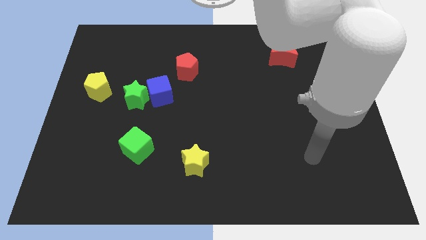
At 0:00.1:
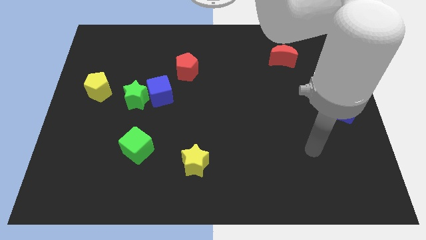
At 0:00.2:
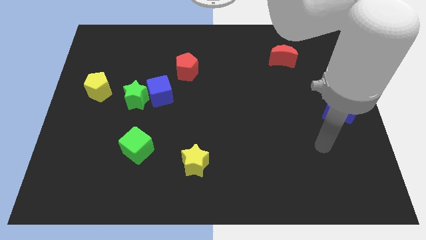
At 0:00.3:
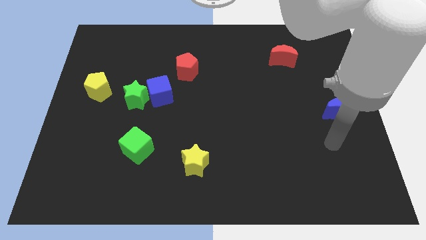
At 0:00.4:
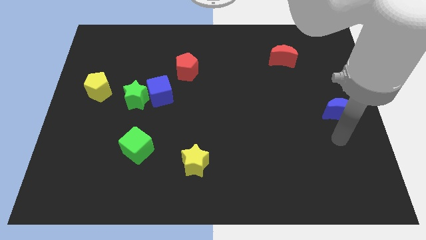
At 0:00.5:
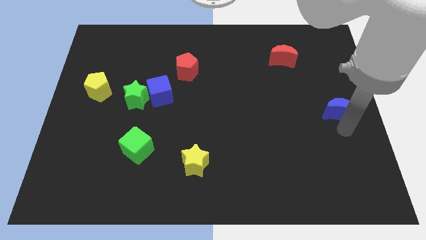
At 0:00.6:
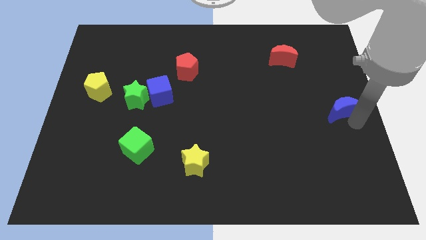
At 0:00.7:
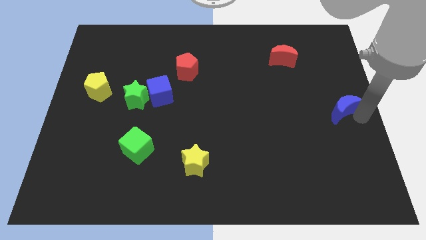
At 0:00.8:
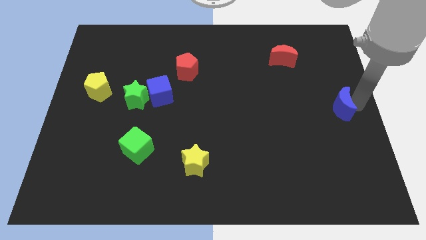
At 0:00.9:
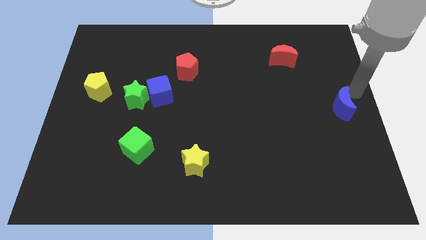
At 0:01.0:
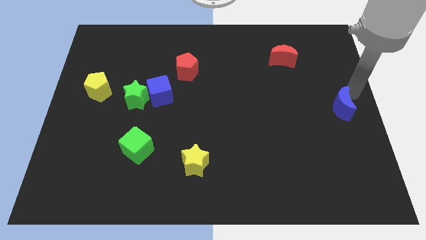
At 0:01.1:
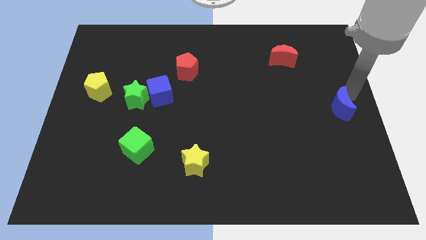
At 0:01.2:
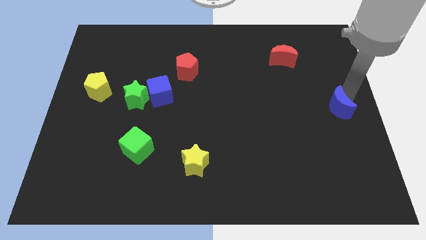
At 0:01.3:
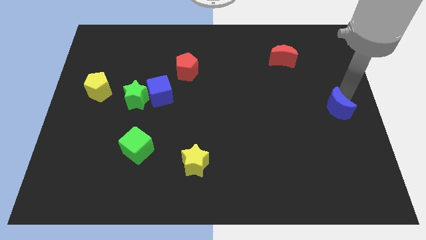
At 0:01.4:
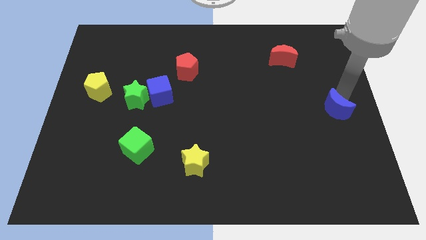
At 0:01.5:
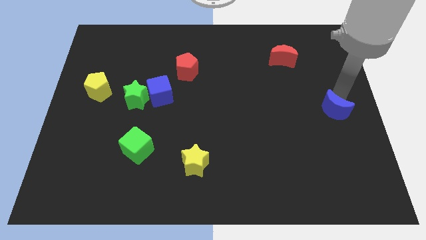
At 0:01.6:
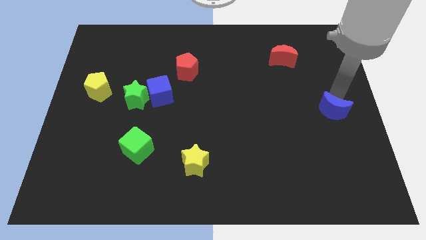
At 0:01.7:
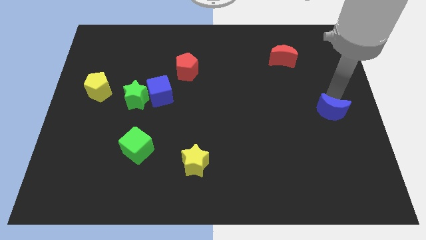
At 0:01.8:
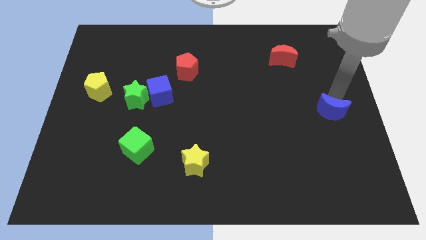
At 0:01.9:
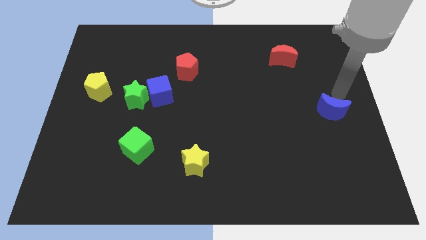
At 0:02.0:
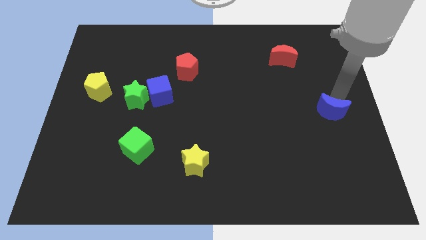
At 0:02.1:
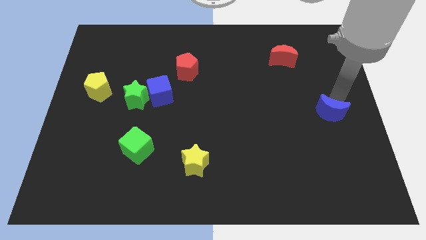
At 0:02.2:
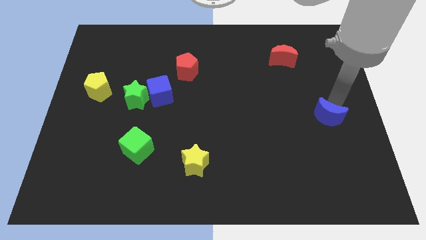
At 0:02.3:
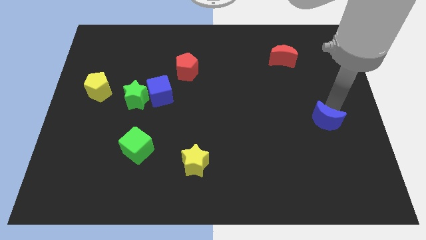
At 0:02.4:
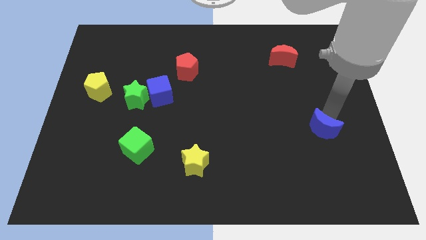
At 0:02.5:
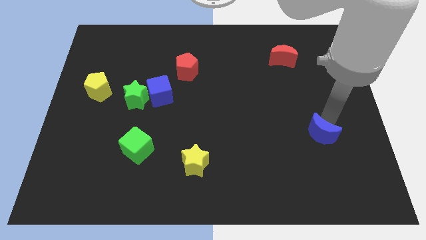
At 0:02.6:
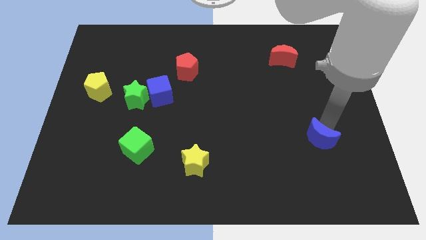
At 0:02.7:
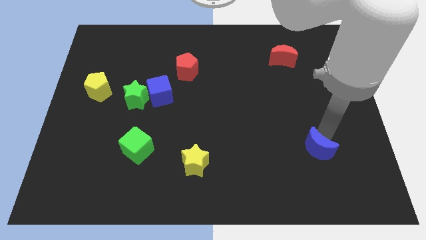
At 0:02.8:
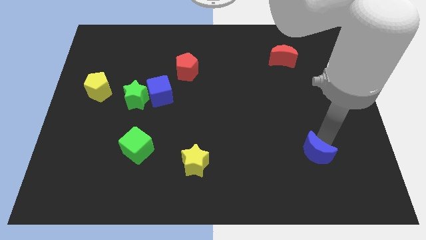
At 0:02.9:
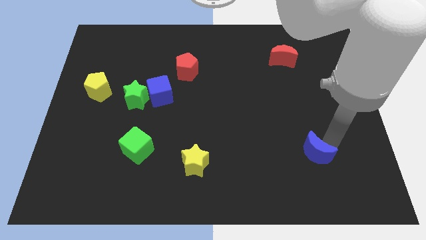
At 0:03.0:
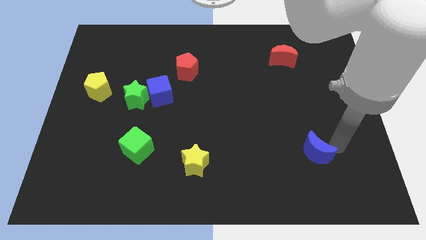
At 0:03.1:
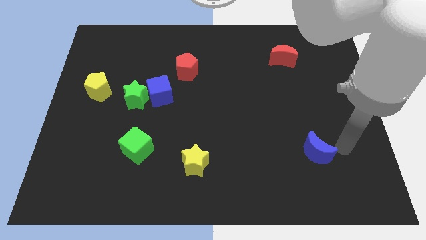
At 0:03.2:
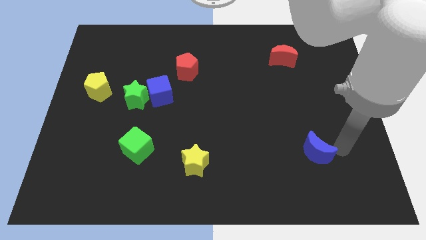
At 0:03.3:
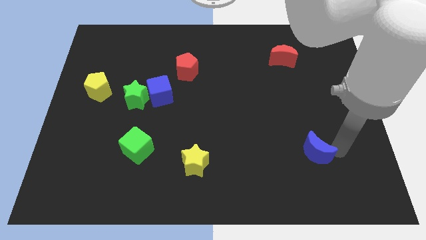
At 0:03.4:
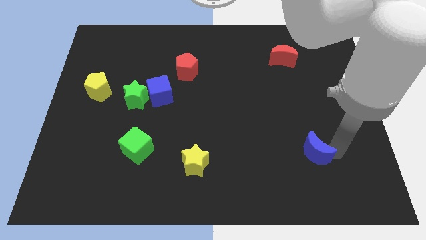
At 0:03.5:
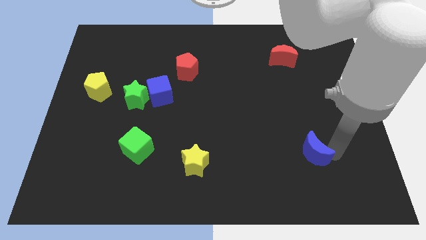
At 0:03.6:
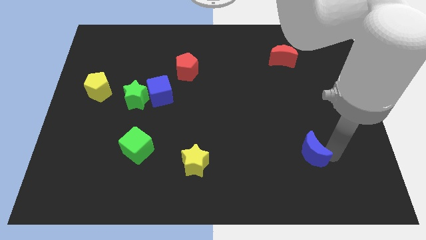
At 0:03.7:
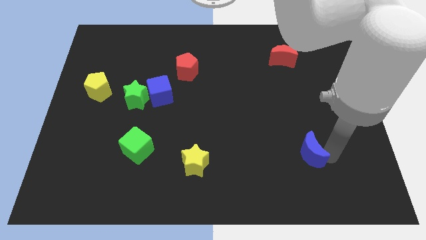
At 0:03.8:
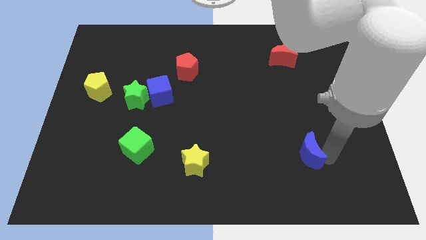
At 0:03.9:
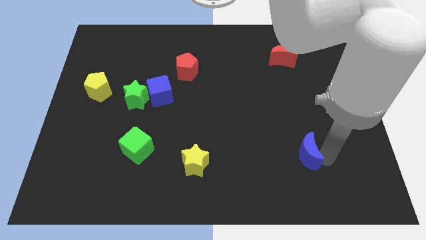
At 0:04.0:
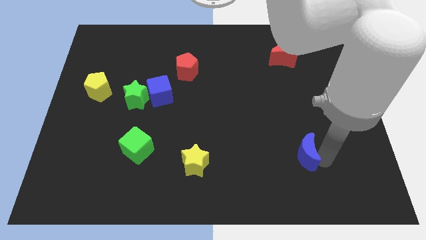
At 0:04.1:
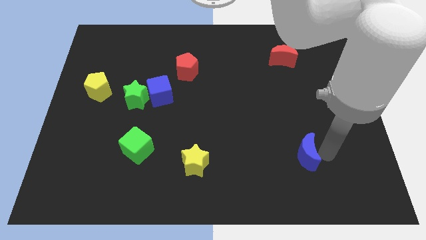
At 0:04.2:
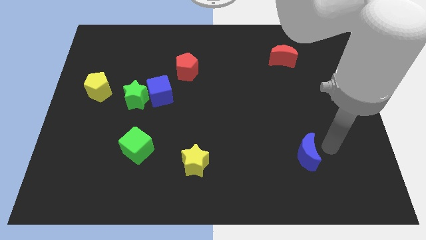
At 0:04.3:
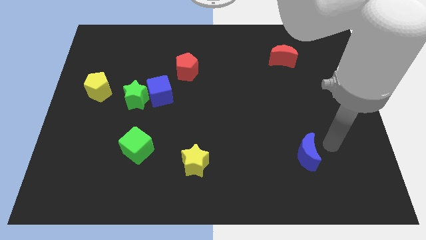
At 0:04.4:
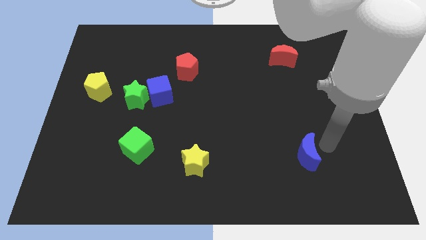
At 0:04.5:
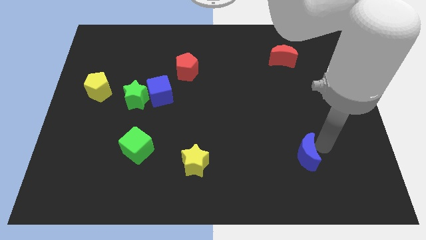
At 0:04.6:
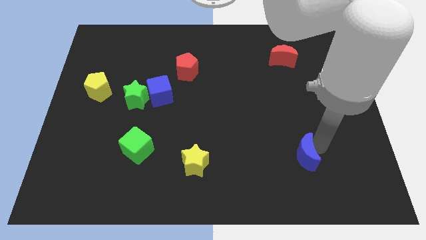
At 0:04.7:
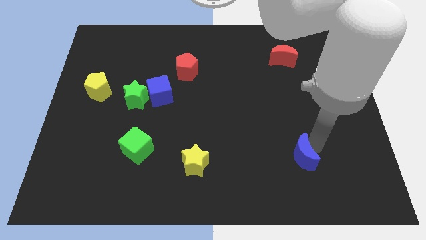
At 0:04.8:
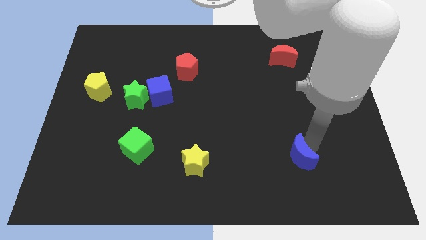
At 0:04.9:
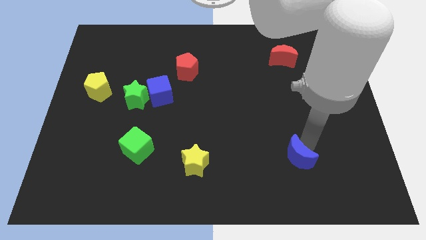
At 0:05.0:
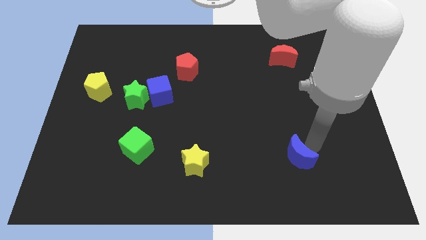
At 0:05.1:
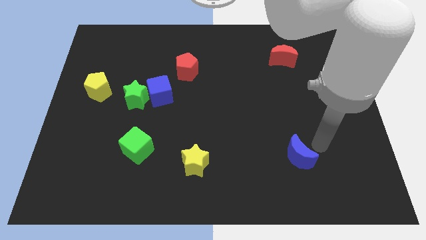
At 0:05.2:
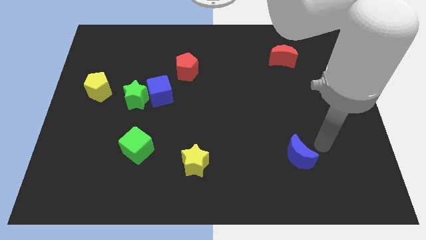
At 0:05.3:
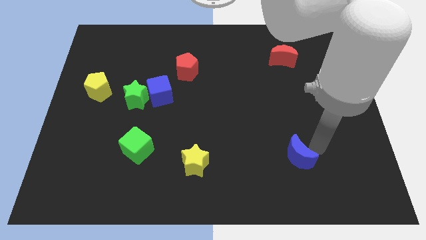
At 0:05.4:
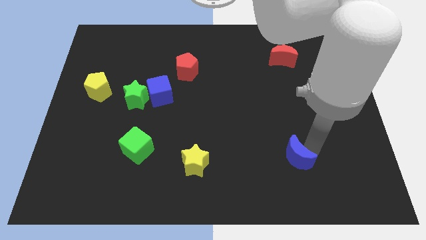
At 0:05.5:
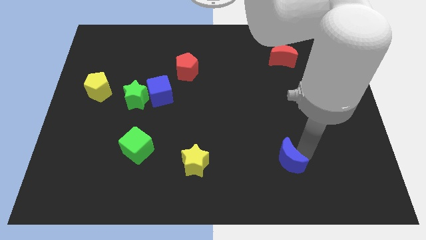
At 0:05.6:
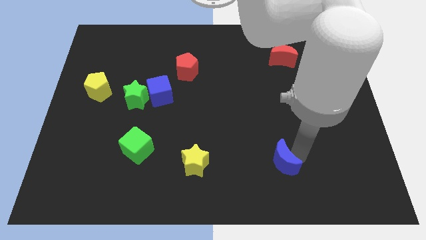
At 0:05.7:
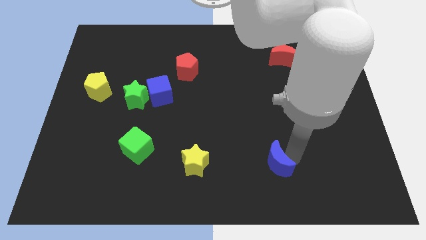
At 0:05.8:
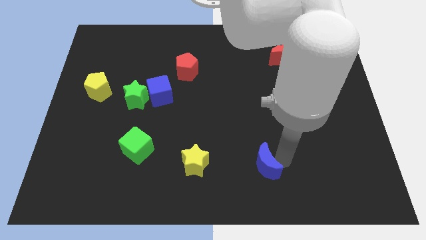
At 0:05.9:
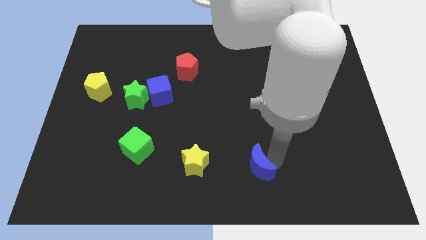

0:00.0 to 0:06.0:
move the blue moon to the bottom

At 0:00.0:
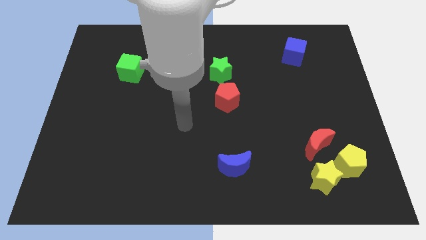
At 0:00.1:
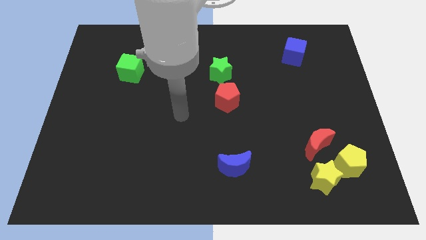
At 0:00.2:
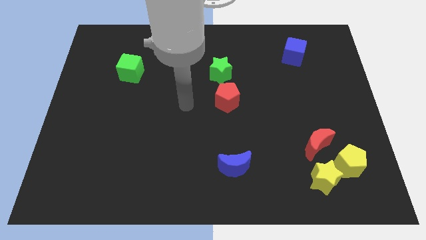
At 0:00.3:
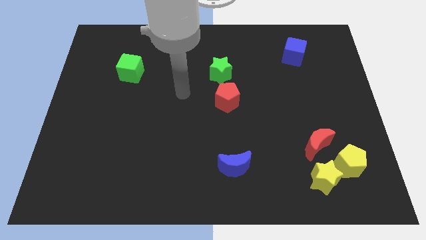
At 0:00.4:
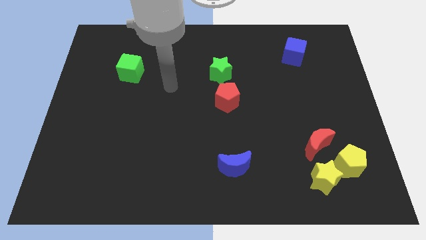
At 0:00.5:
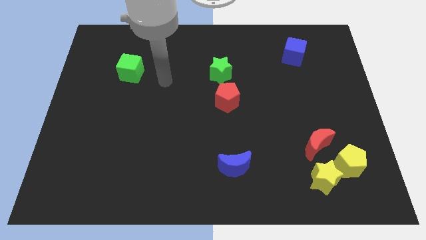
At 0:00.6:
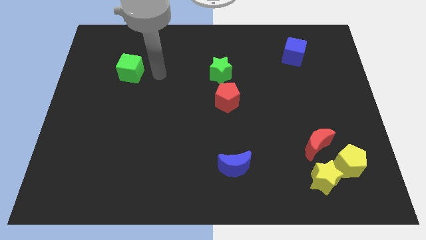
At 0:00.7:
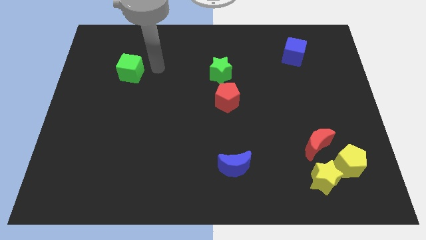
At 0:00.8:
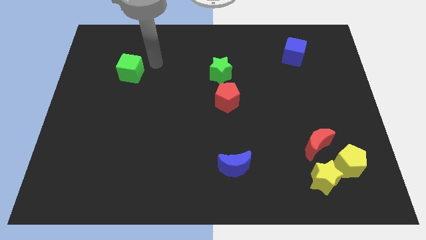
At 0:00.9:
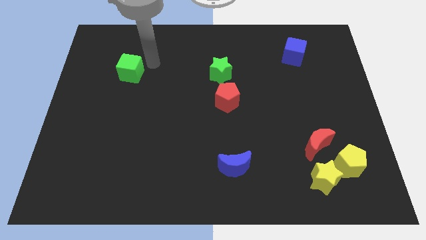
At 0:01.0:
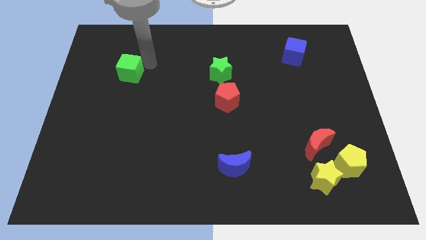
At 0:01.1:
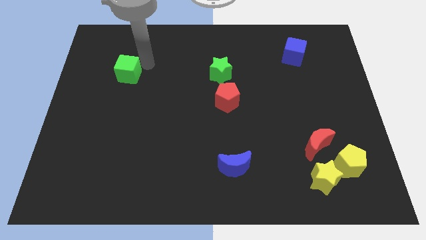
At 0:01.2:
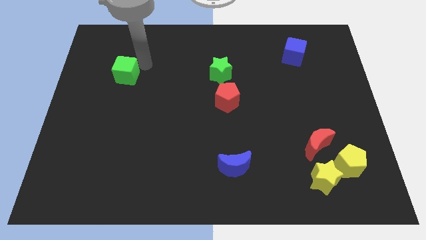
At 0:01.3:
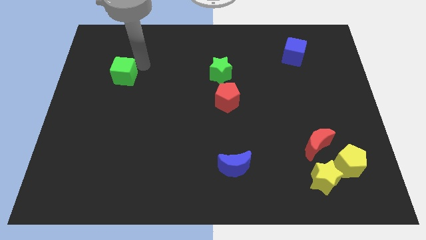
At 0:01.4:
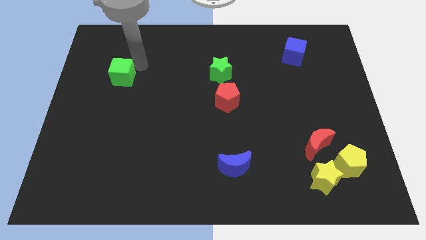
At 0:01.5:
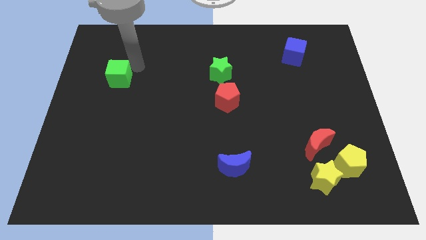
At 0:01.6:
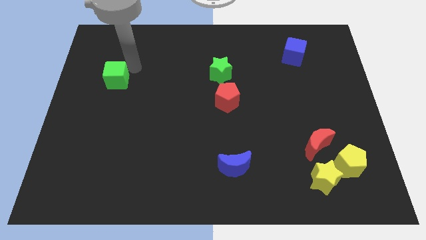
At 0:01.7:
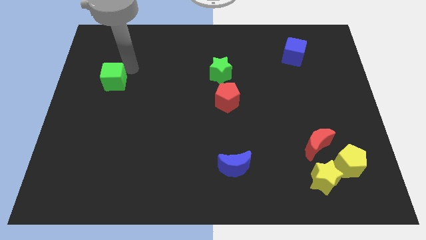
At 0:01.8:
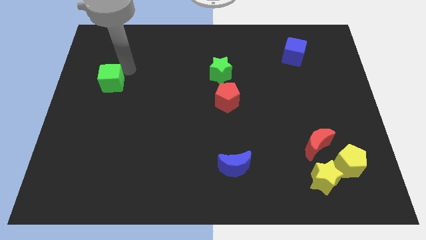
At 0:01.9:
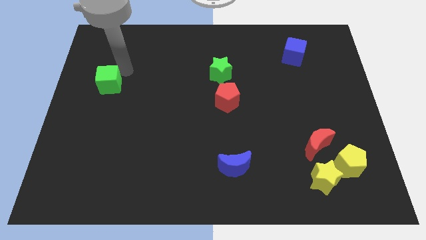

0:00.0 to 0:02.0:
push the green cube to the left side of the board
